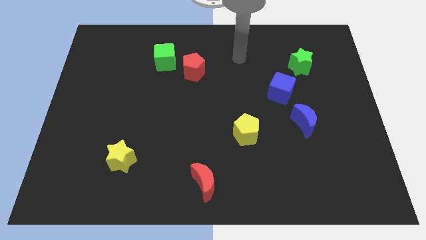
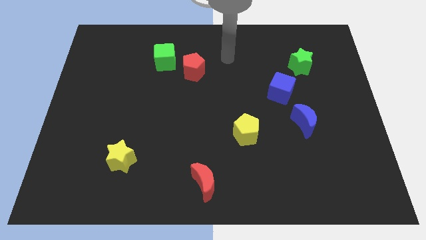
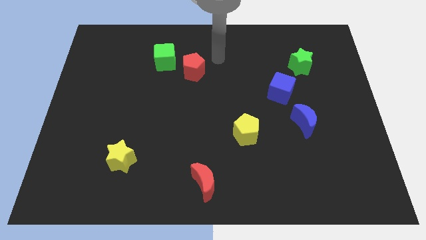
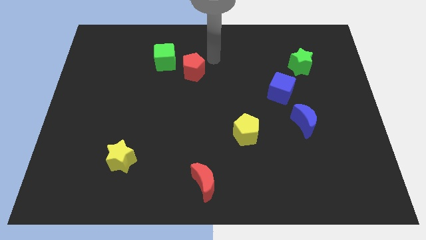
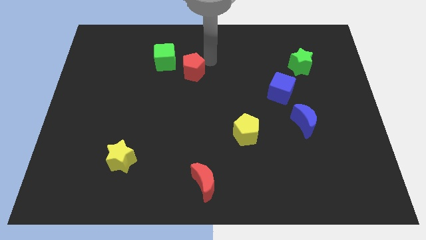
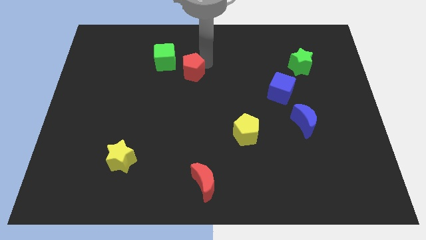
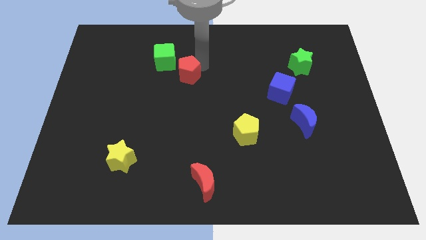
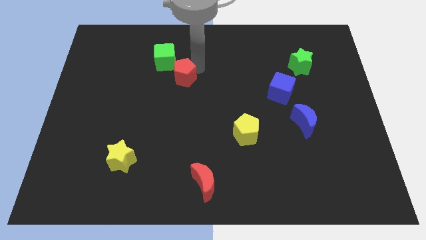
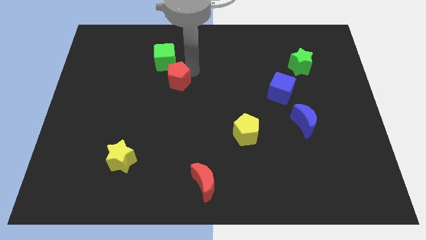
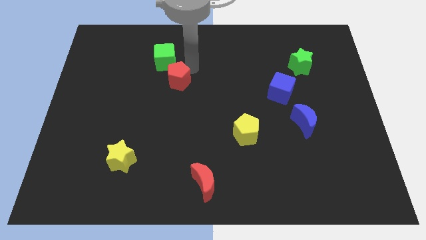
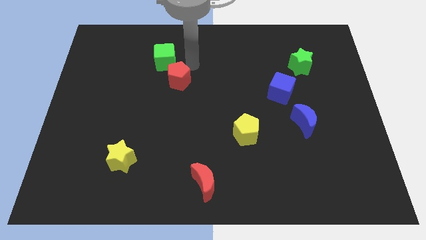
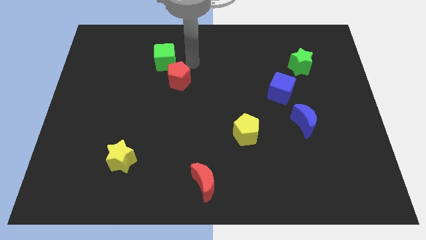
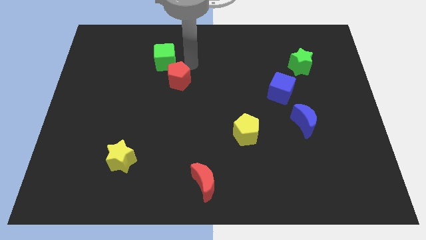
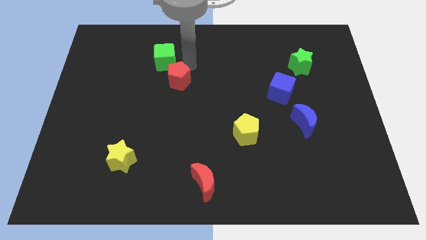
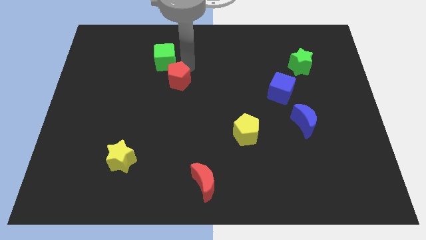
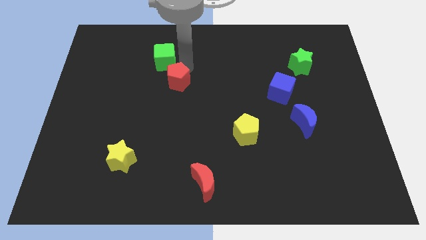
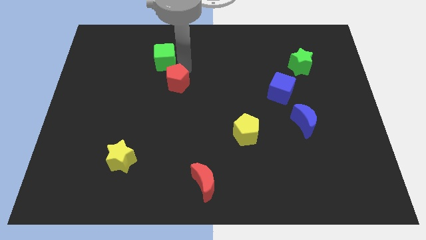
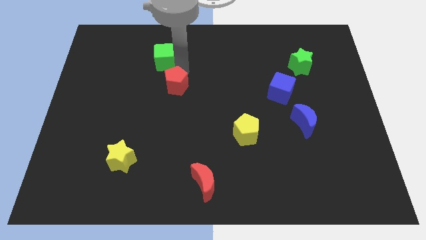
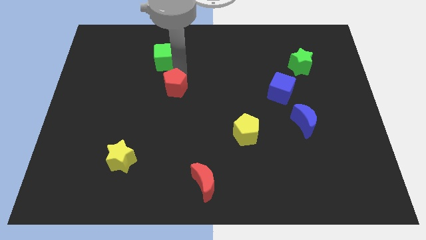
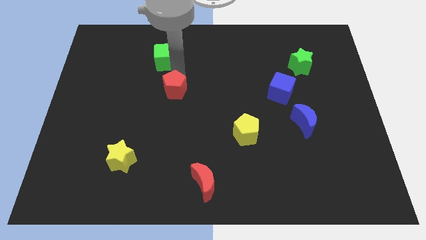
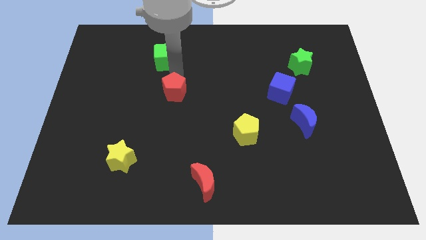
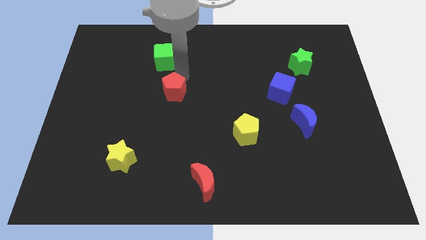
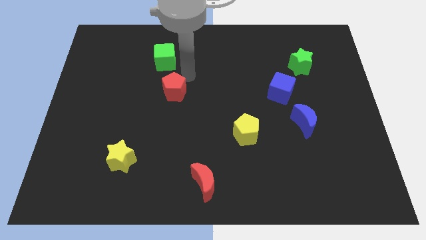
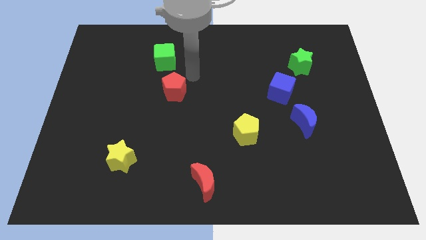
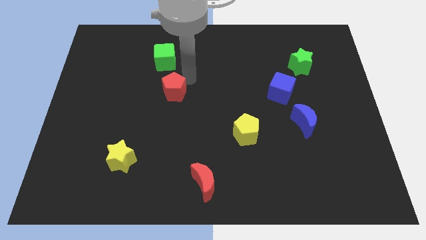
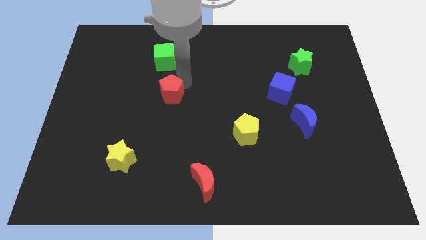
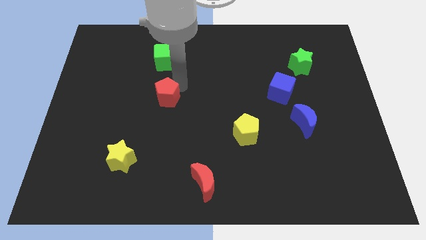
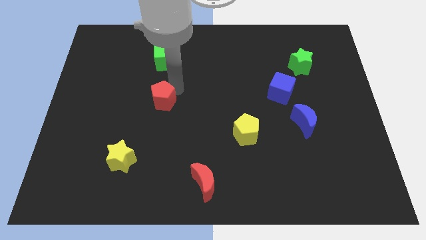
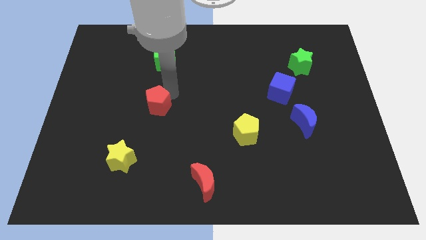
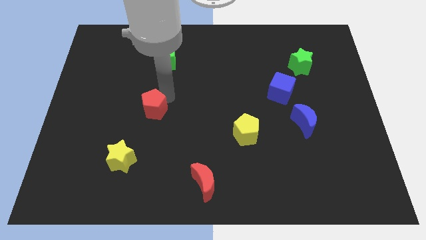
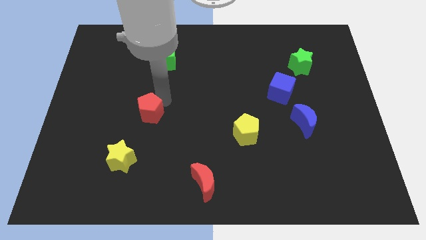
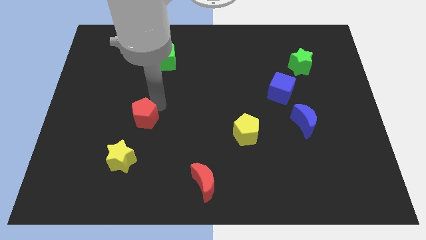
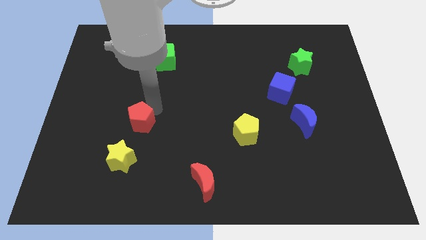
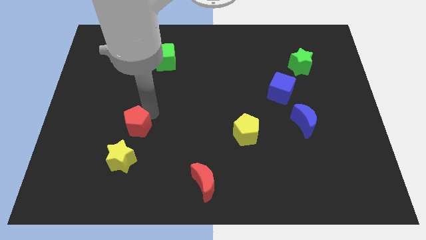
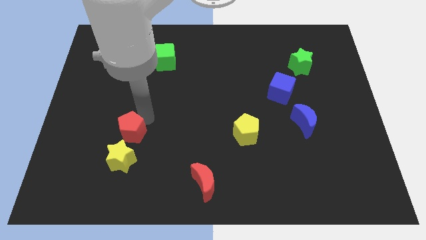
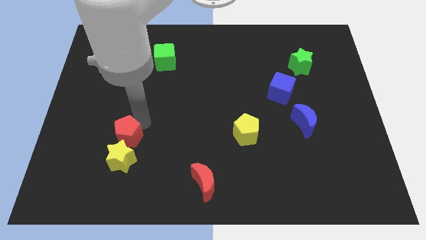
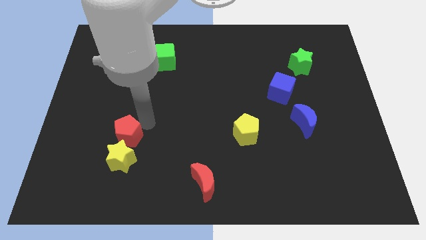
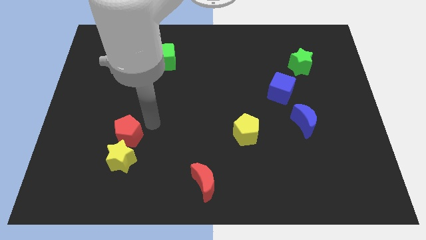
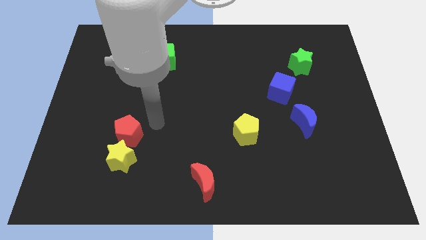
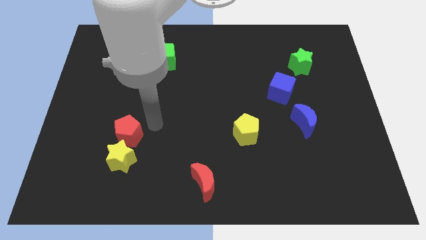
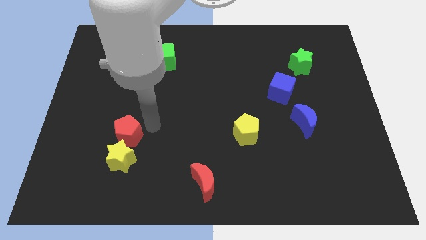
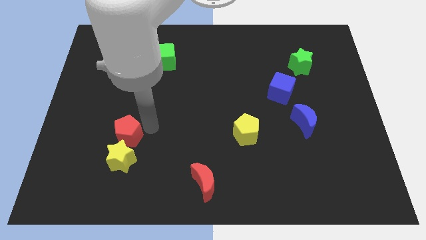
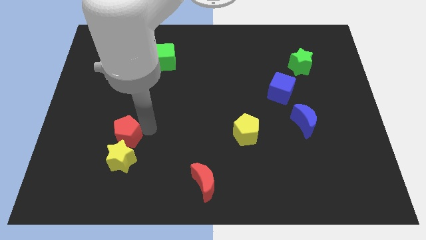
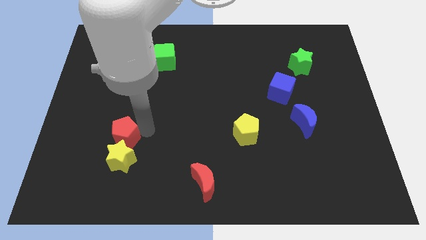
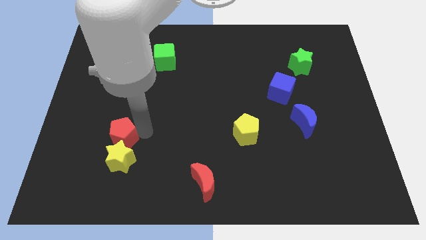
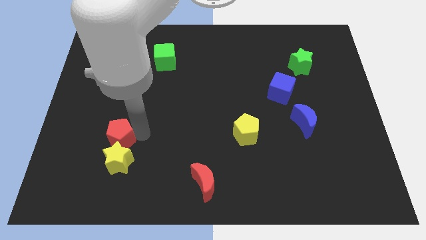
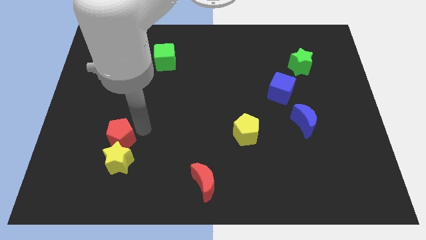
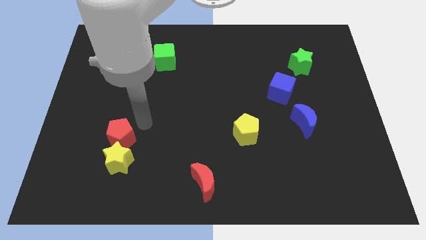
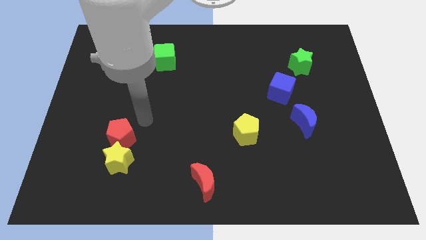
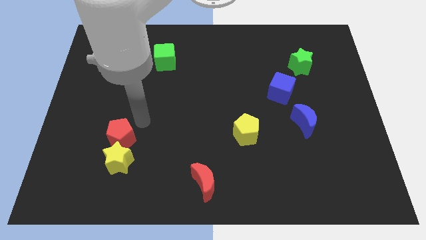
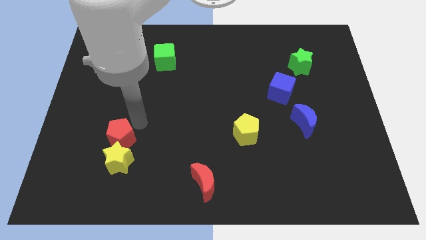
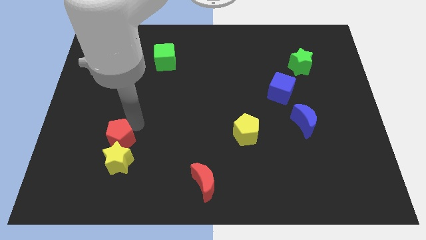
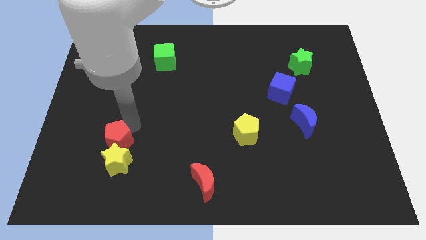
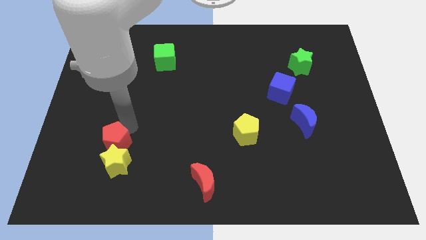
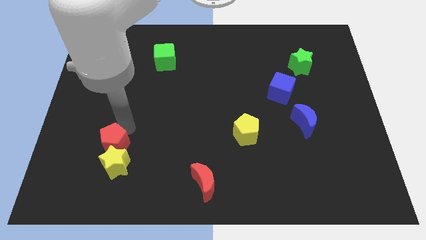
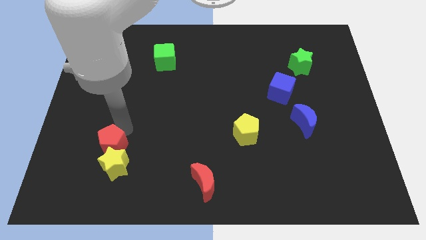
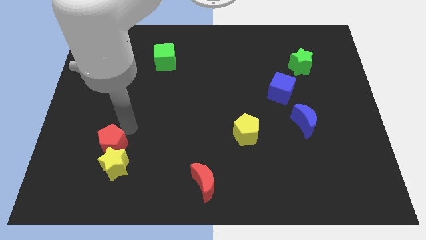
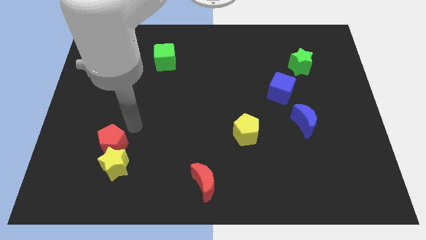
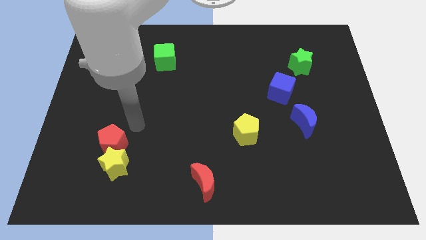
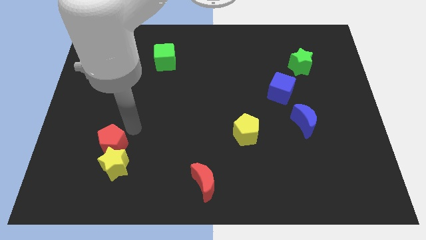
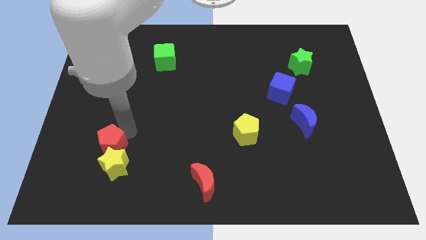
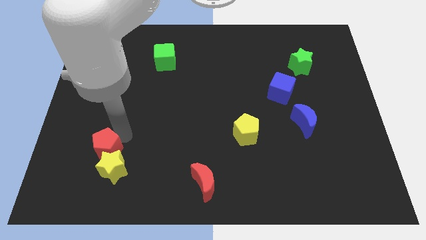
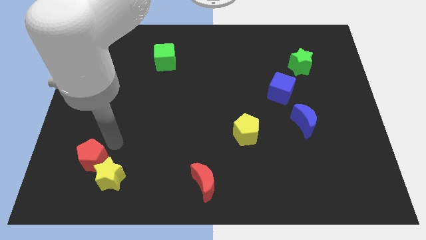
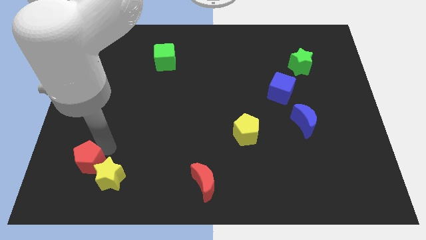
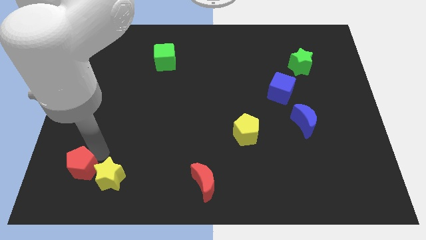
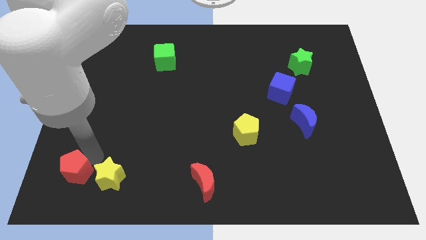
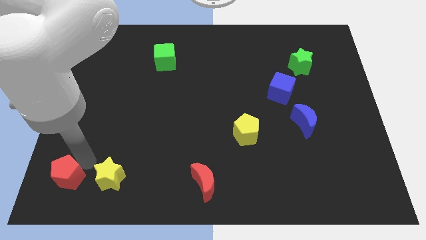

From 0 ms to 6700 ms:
push the red pentagon to the bottom left

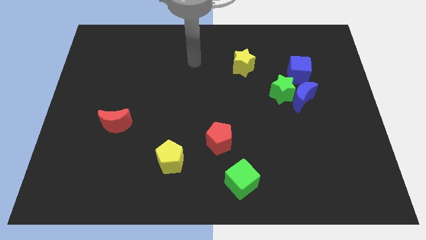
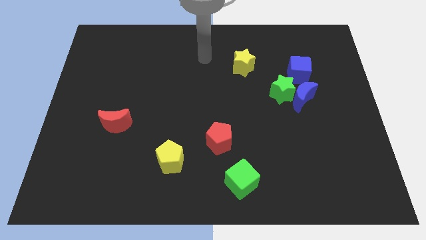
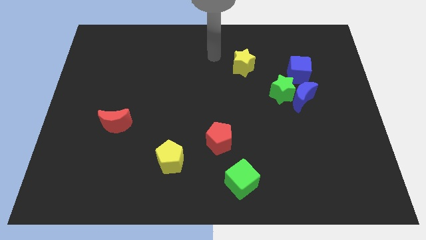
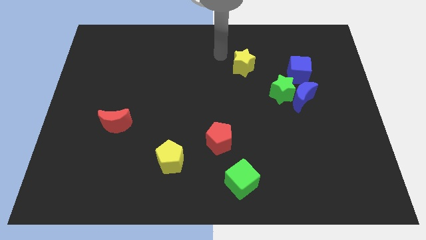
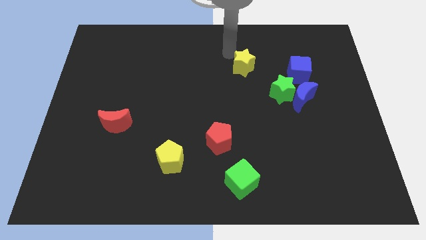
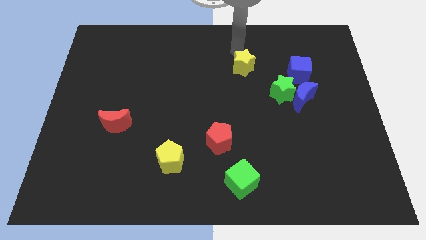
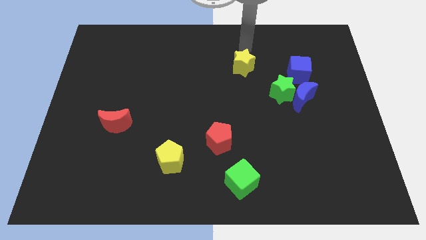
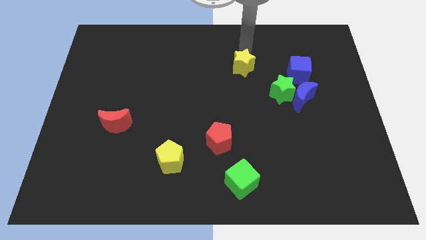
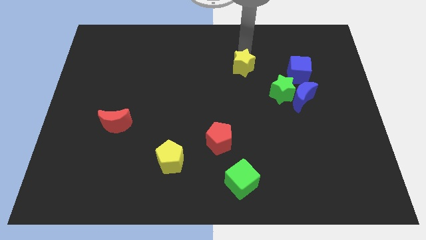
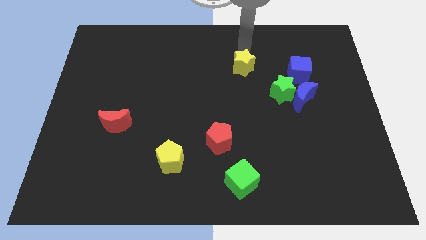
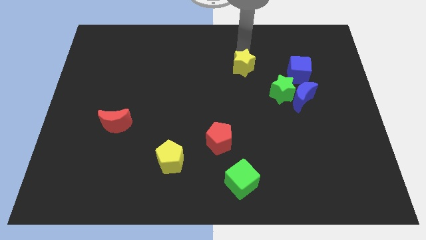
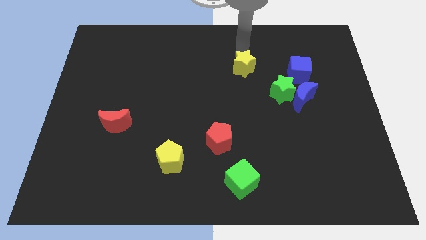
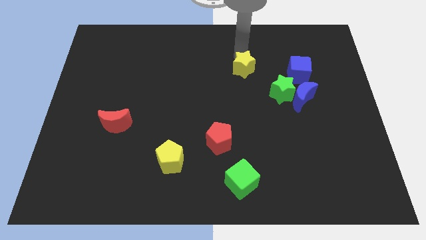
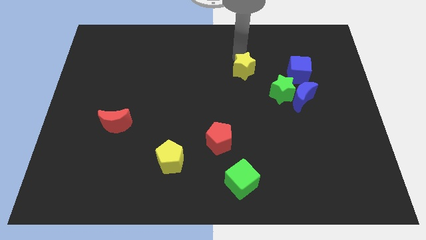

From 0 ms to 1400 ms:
push the yellow star to the center

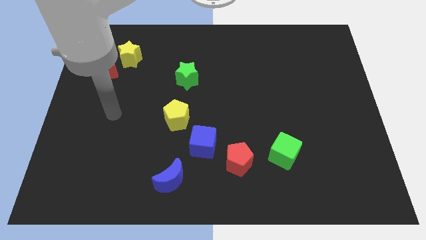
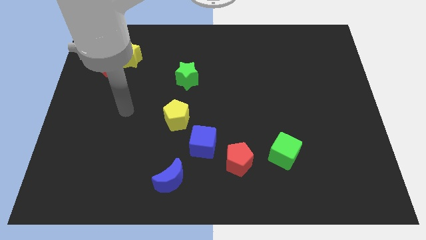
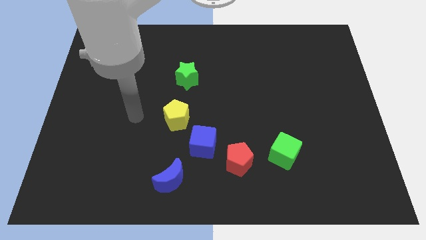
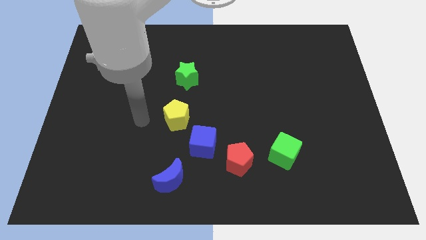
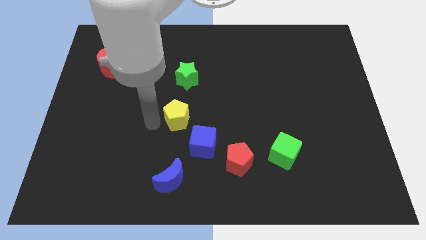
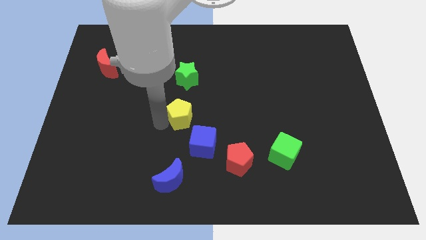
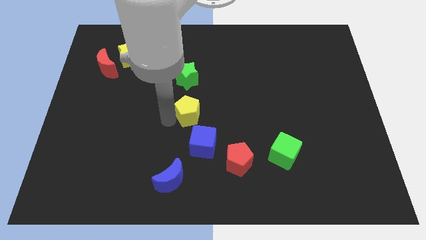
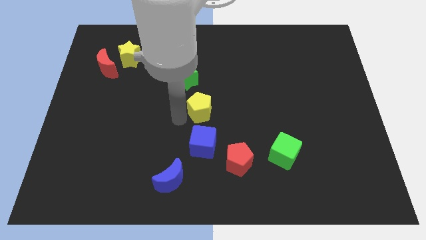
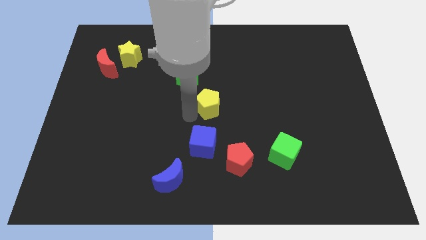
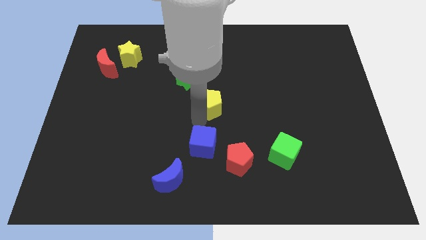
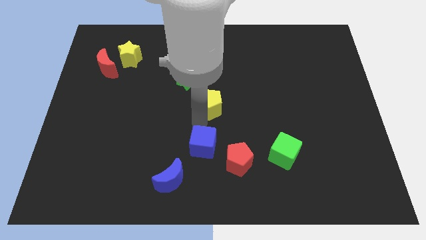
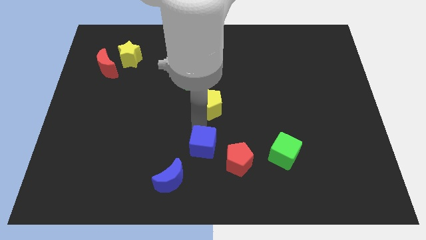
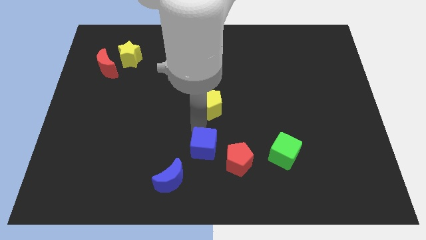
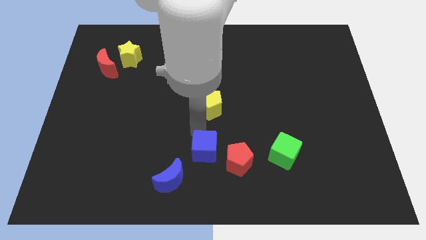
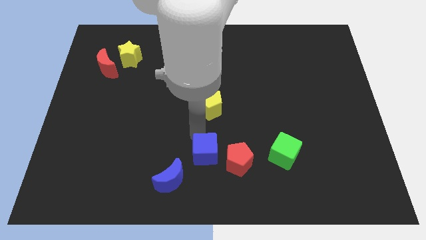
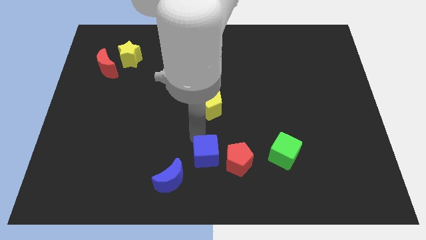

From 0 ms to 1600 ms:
put the blue cube to the bottom side
